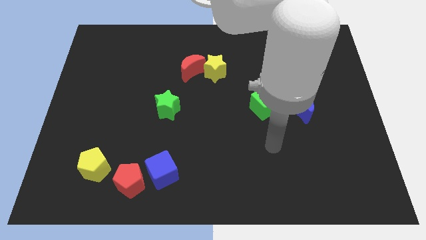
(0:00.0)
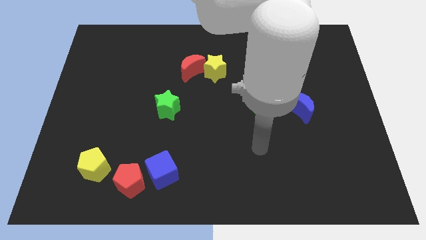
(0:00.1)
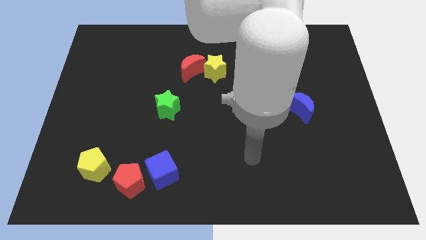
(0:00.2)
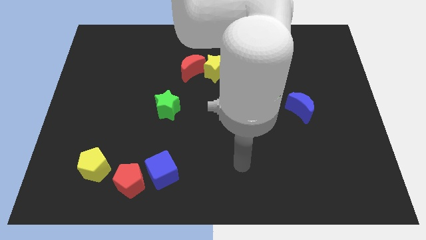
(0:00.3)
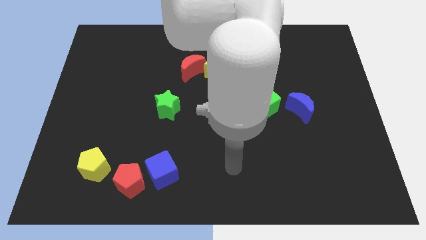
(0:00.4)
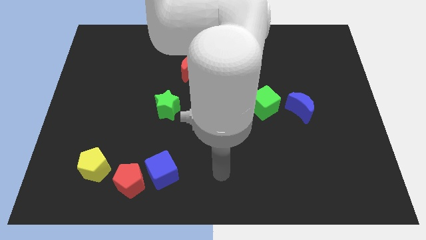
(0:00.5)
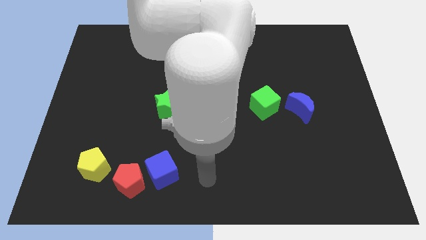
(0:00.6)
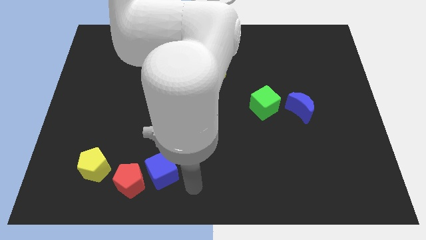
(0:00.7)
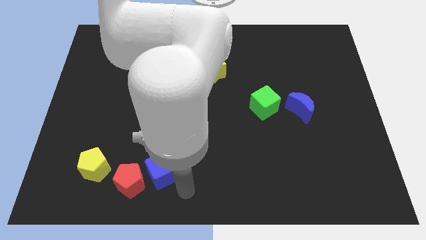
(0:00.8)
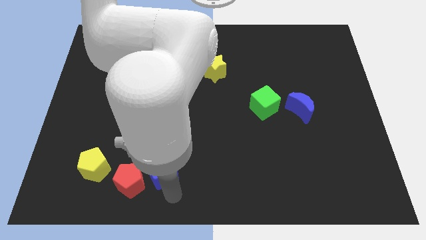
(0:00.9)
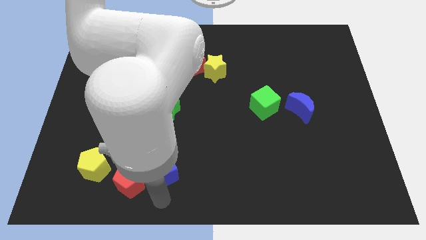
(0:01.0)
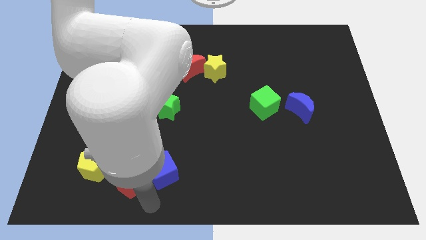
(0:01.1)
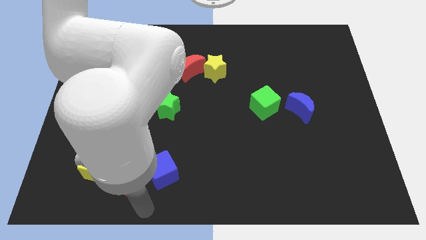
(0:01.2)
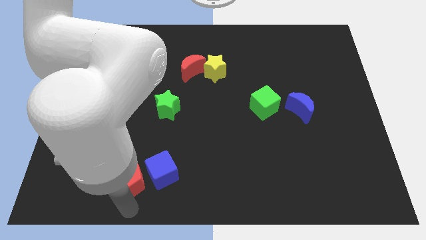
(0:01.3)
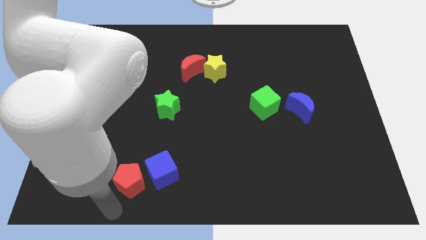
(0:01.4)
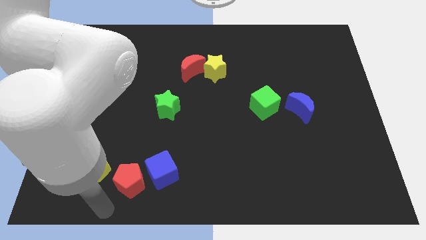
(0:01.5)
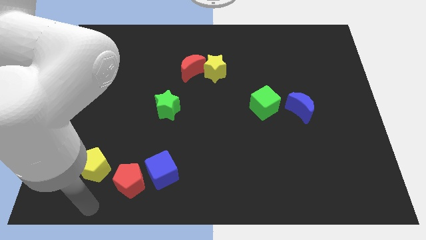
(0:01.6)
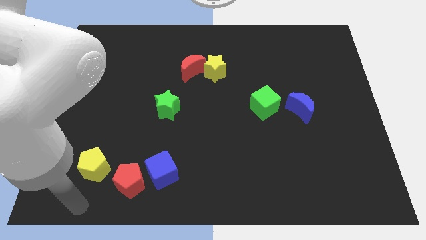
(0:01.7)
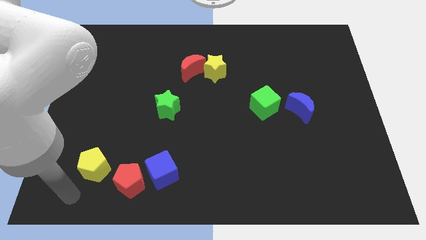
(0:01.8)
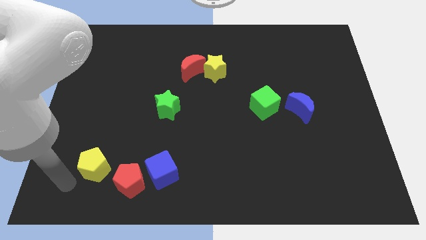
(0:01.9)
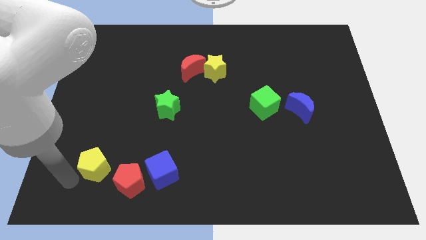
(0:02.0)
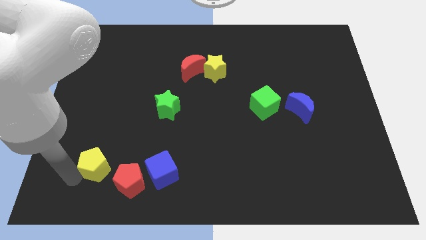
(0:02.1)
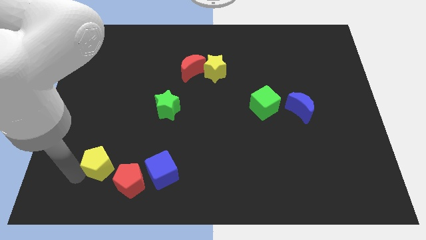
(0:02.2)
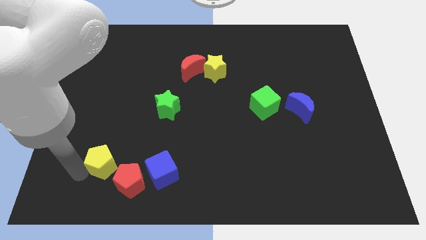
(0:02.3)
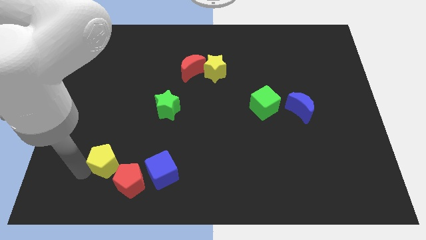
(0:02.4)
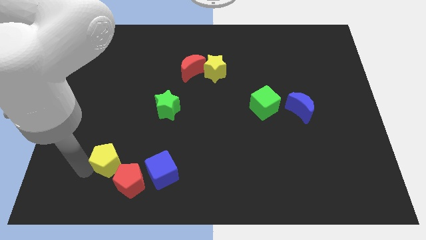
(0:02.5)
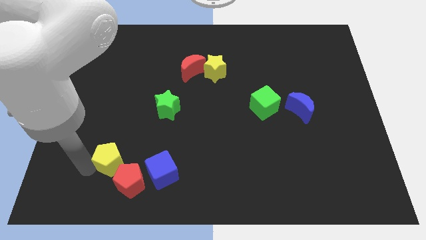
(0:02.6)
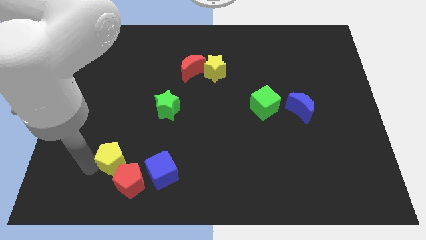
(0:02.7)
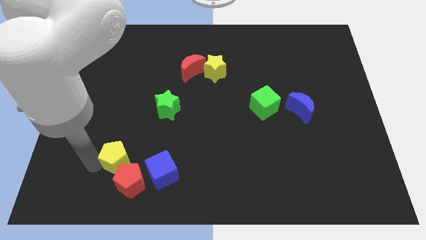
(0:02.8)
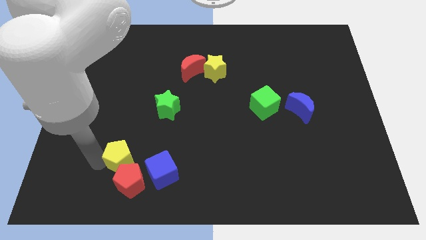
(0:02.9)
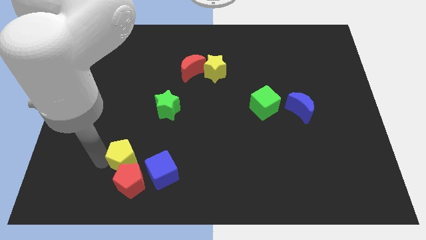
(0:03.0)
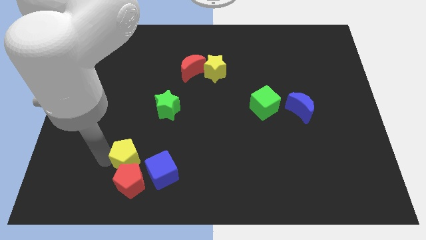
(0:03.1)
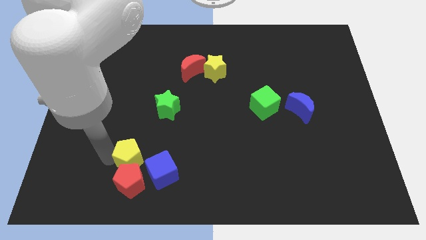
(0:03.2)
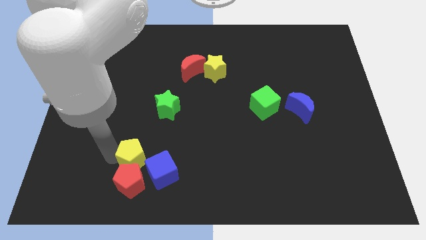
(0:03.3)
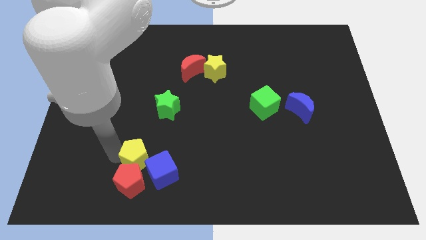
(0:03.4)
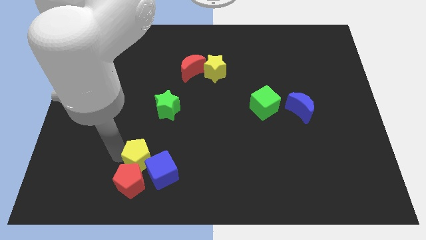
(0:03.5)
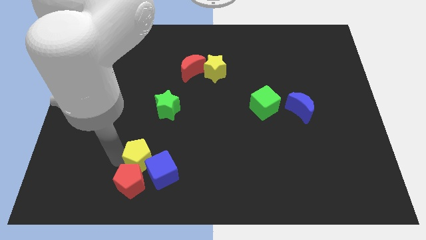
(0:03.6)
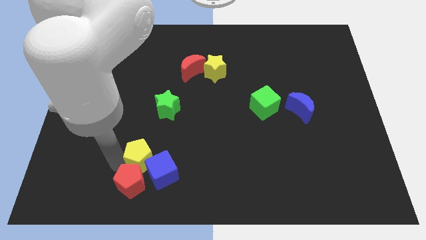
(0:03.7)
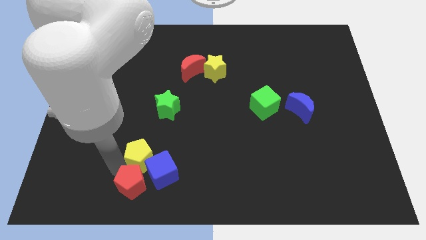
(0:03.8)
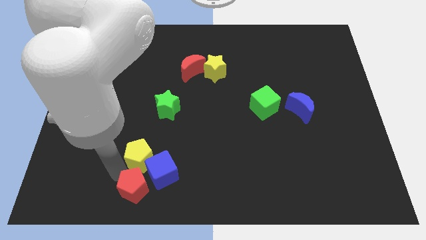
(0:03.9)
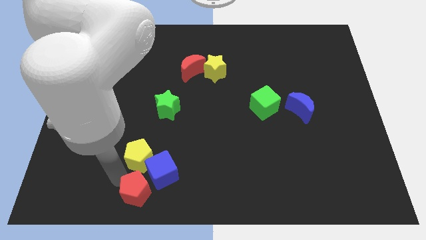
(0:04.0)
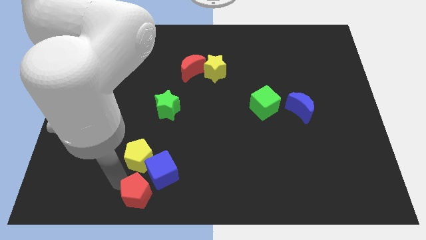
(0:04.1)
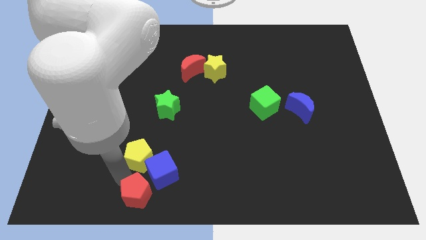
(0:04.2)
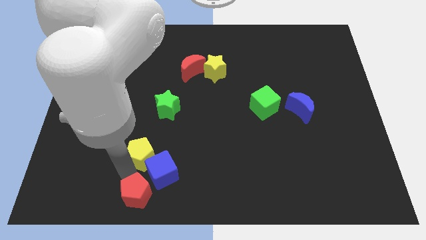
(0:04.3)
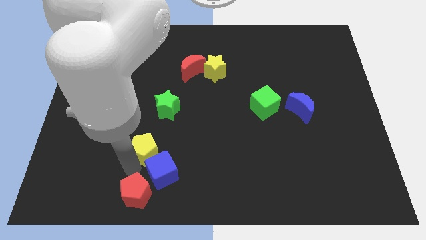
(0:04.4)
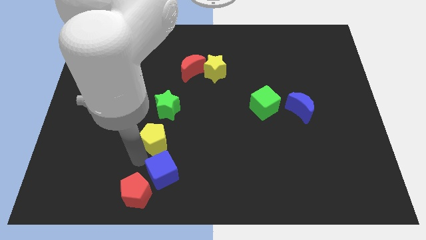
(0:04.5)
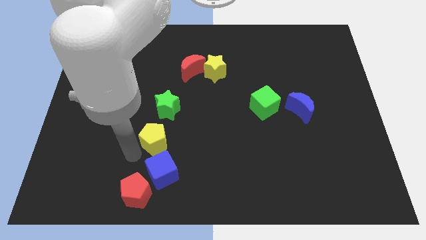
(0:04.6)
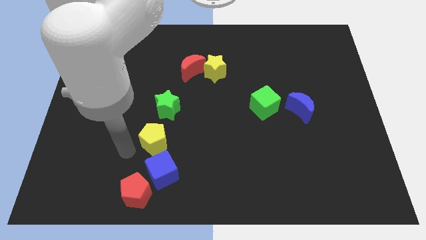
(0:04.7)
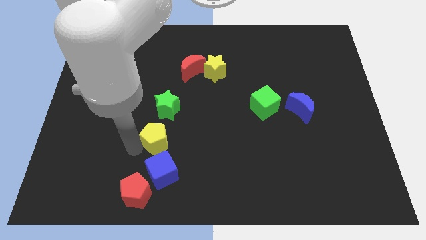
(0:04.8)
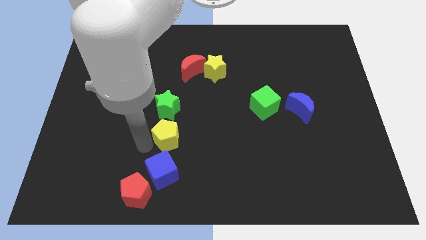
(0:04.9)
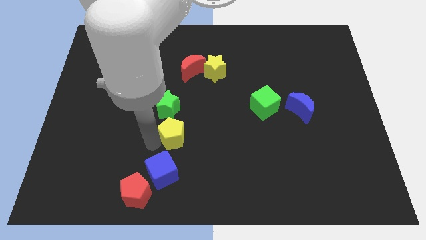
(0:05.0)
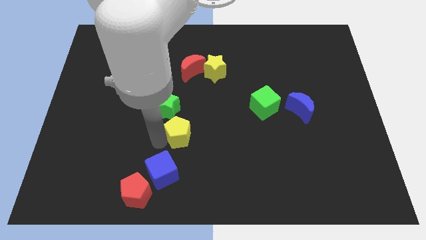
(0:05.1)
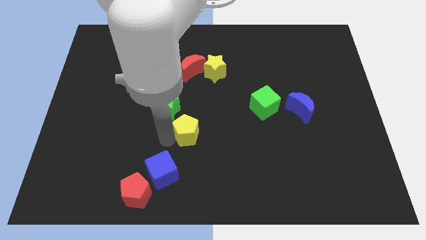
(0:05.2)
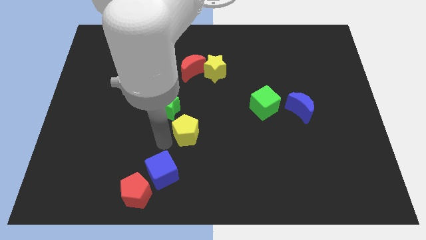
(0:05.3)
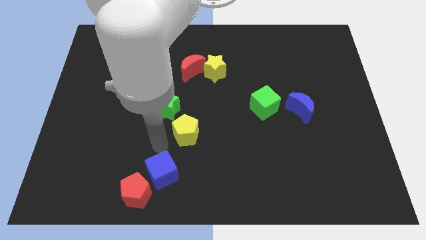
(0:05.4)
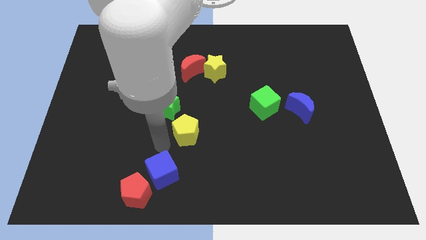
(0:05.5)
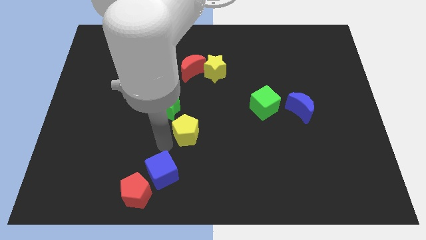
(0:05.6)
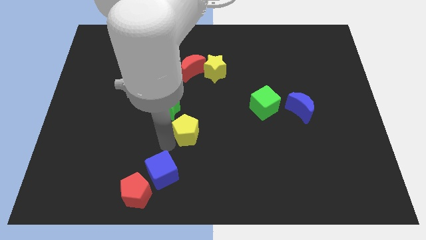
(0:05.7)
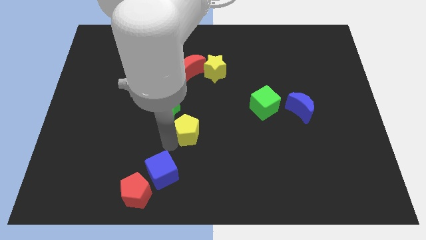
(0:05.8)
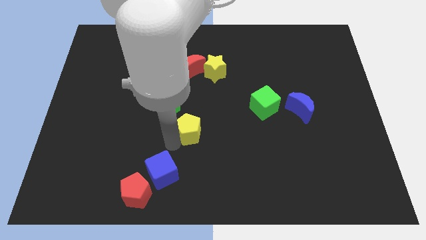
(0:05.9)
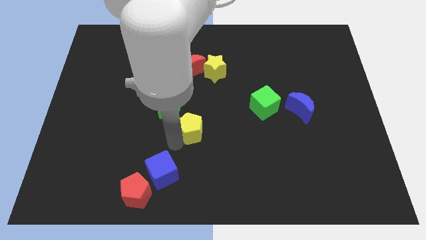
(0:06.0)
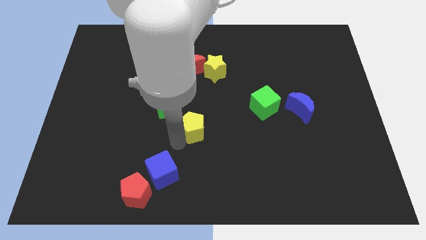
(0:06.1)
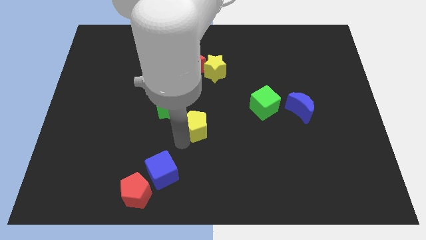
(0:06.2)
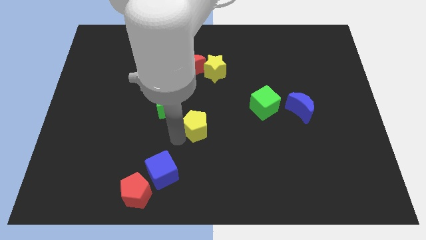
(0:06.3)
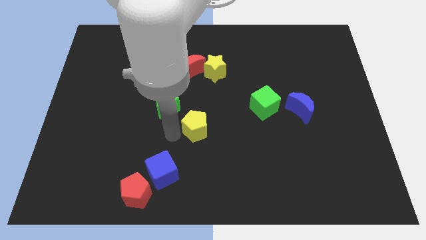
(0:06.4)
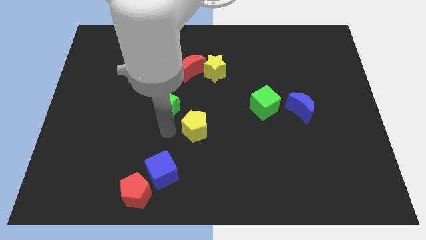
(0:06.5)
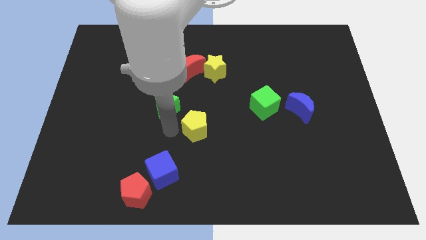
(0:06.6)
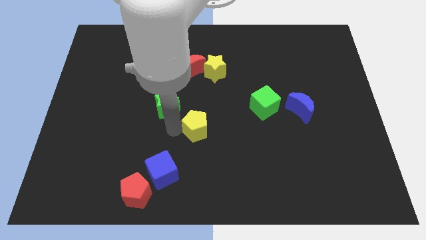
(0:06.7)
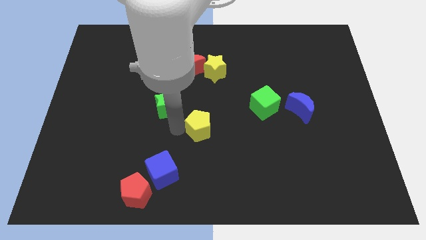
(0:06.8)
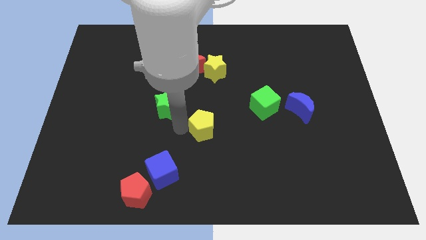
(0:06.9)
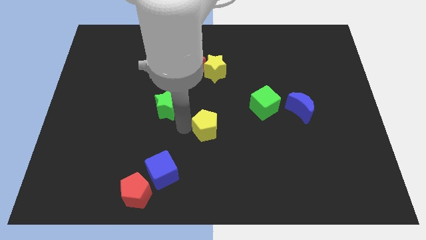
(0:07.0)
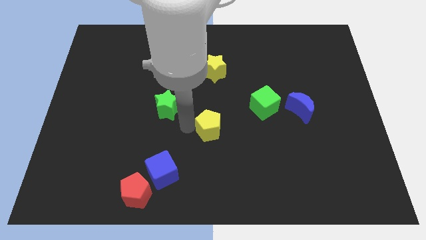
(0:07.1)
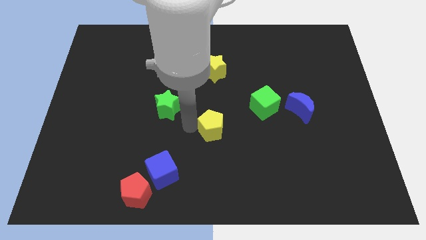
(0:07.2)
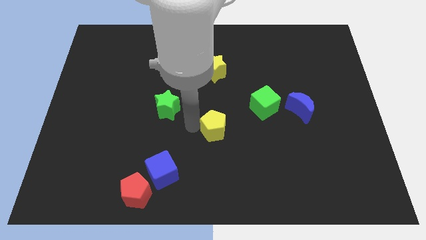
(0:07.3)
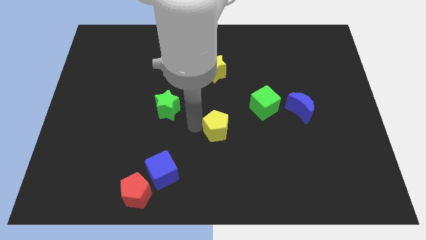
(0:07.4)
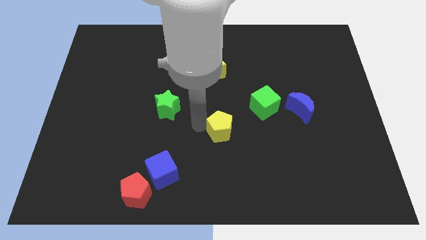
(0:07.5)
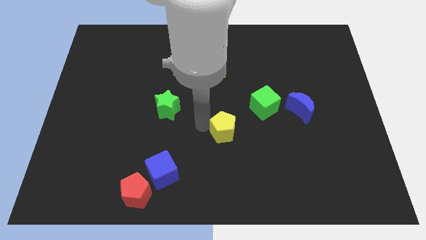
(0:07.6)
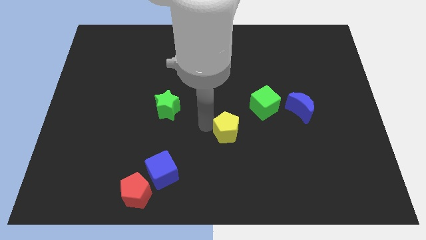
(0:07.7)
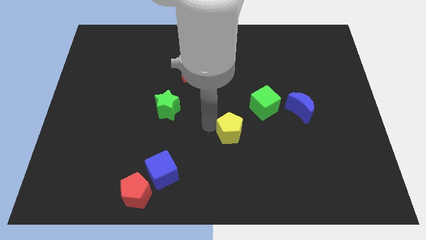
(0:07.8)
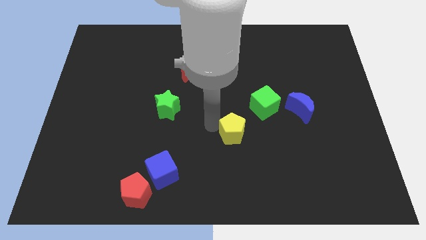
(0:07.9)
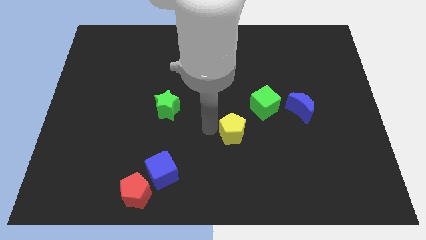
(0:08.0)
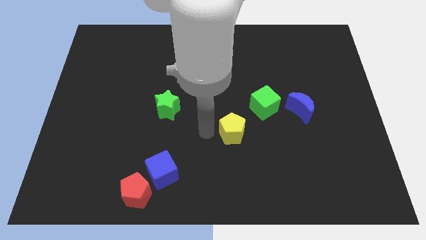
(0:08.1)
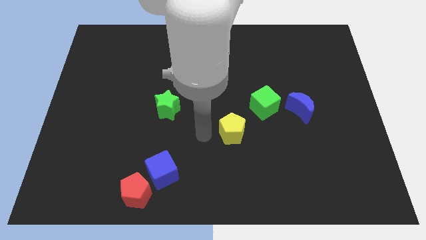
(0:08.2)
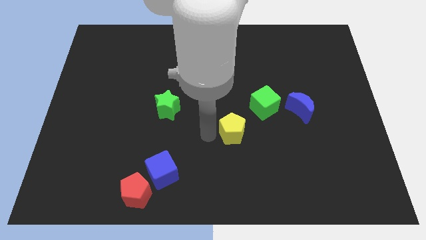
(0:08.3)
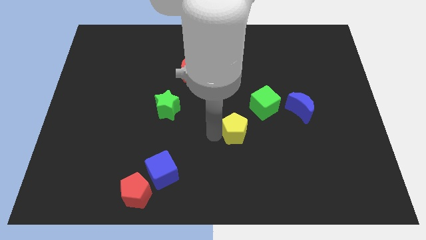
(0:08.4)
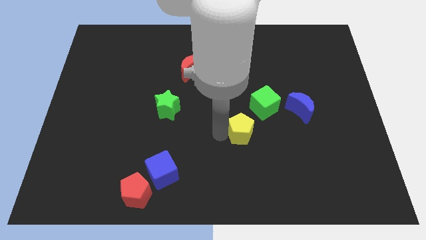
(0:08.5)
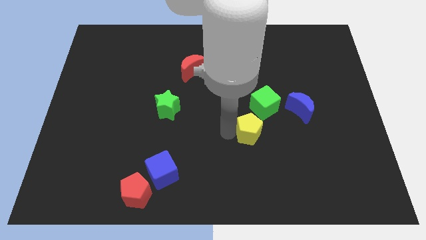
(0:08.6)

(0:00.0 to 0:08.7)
push the yellow pentagon to the bottom of the green cube
